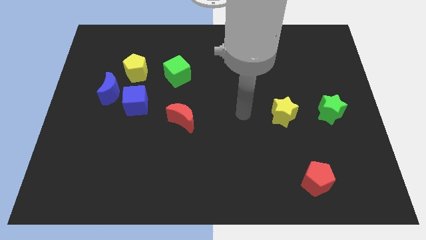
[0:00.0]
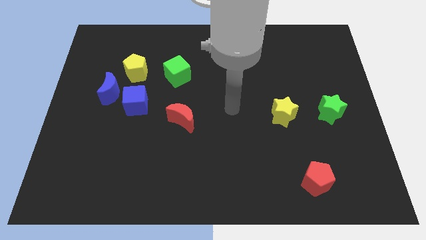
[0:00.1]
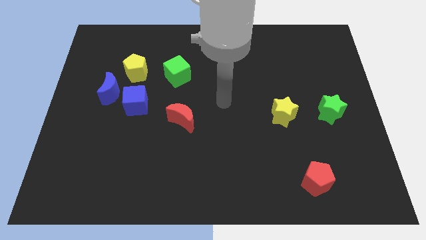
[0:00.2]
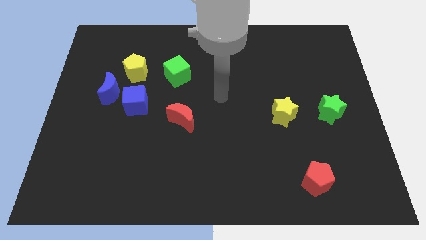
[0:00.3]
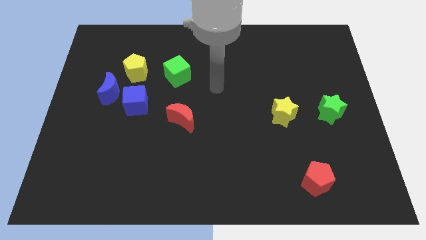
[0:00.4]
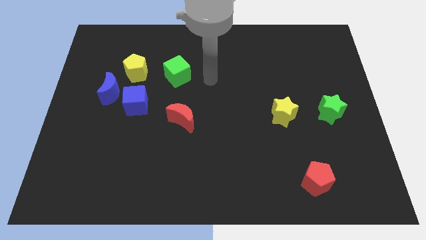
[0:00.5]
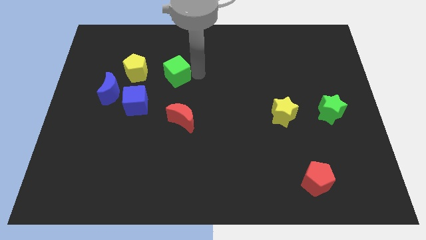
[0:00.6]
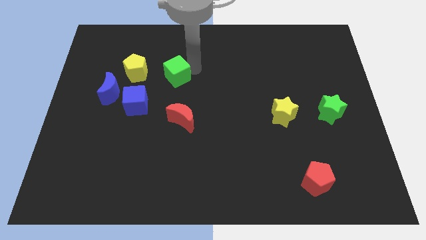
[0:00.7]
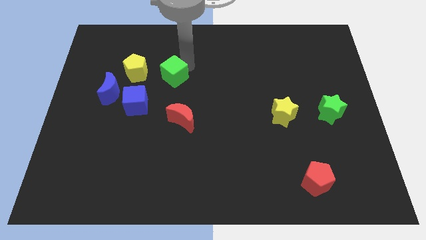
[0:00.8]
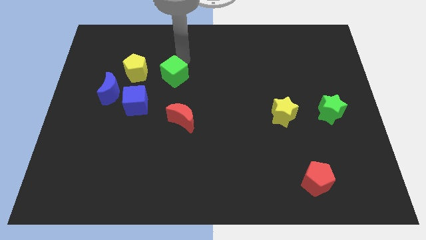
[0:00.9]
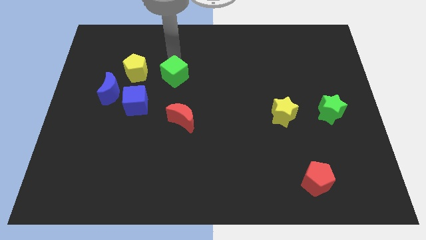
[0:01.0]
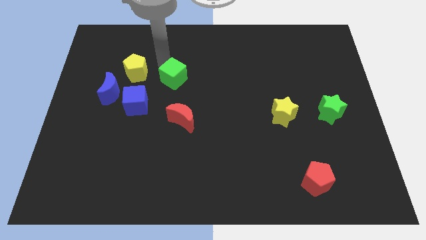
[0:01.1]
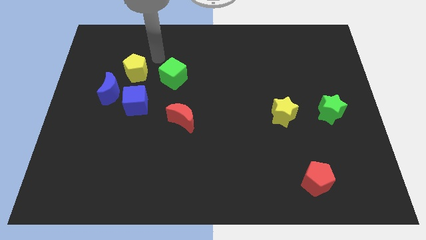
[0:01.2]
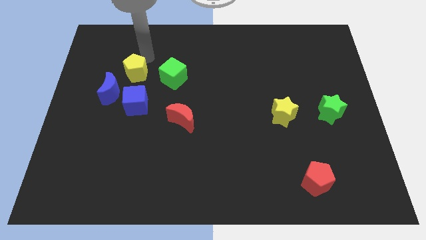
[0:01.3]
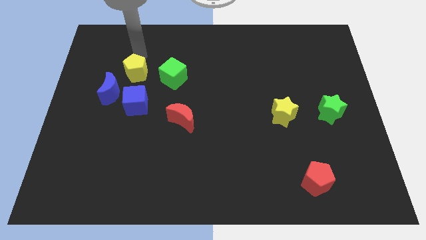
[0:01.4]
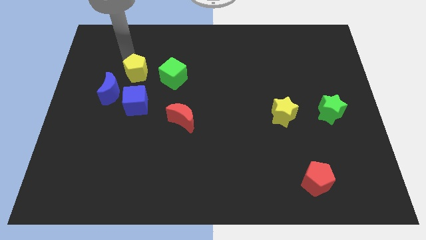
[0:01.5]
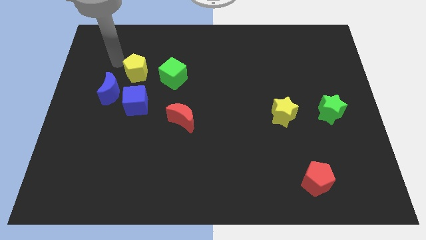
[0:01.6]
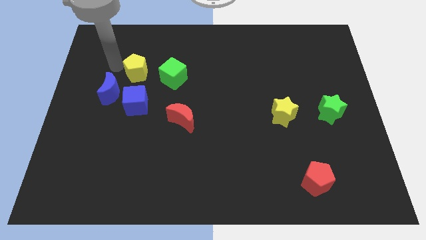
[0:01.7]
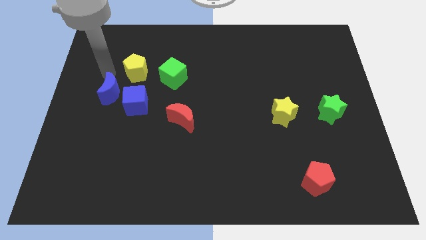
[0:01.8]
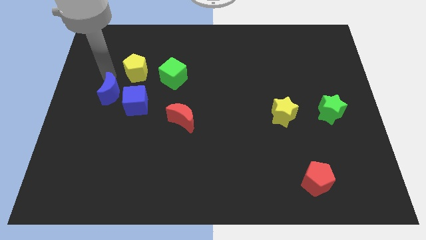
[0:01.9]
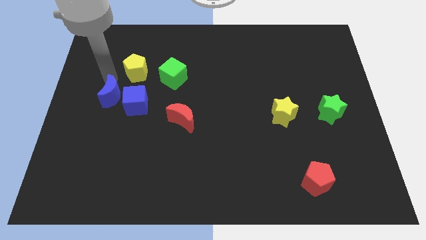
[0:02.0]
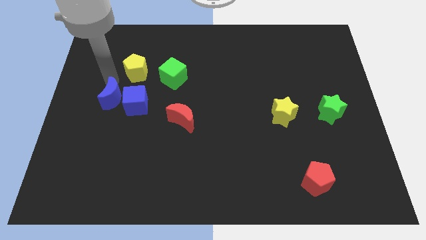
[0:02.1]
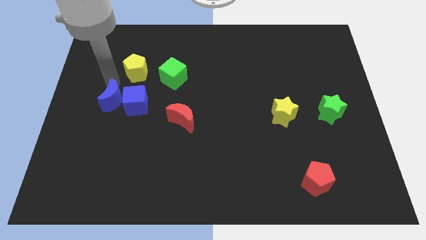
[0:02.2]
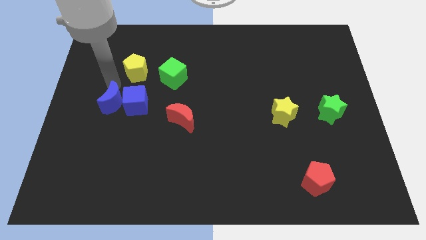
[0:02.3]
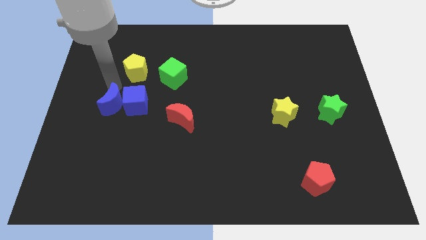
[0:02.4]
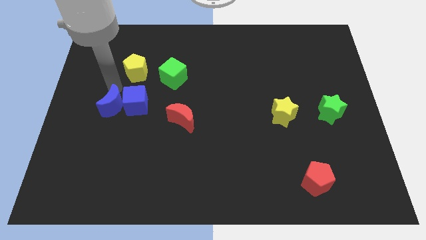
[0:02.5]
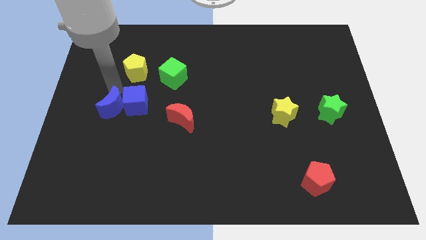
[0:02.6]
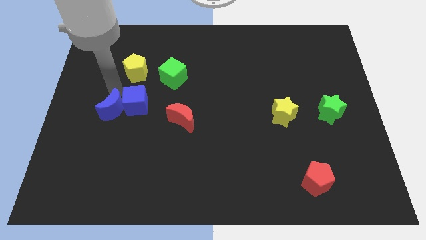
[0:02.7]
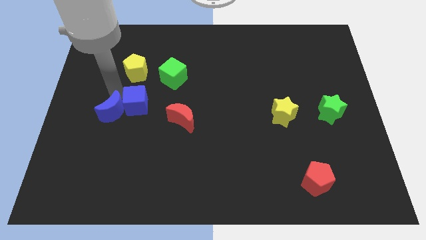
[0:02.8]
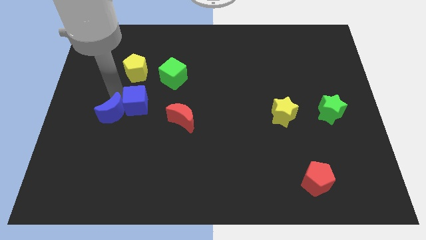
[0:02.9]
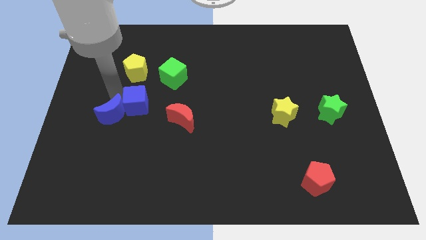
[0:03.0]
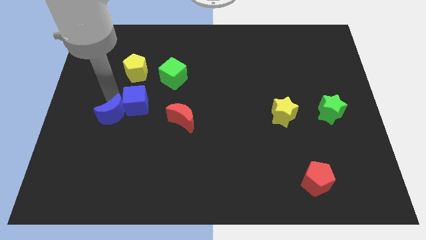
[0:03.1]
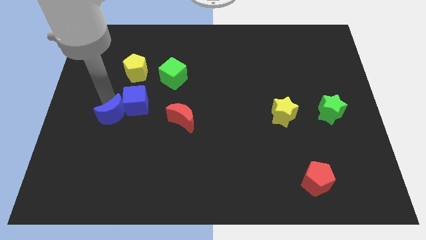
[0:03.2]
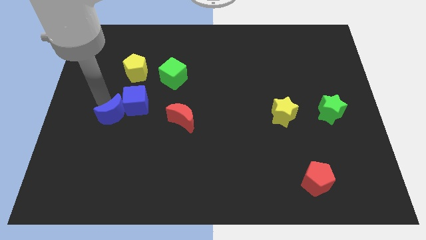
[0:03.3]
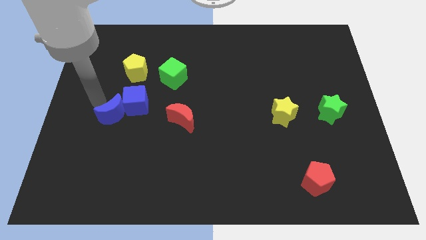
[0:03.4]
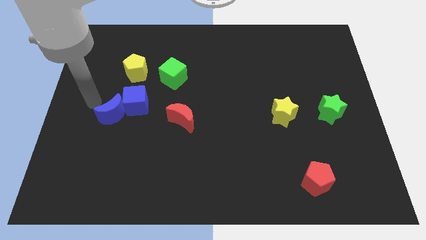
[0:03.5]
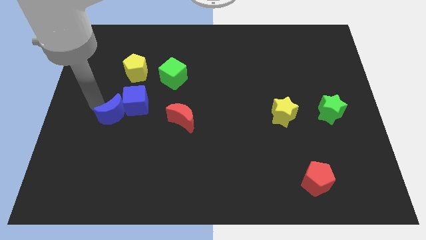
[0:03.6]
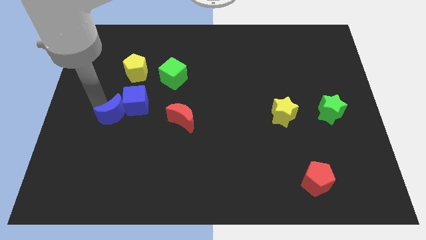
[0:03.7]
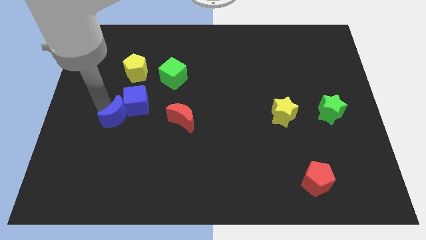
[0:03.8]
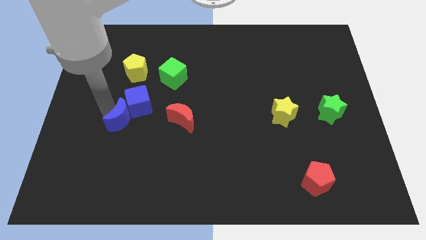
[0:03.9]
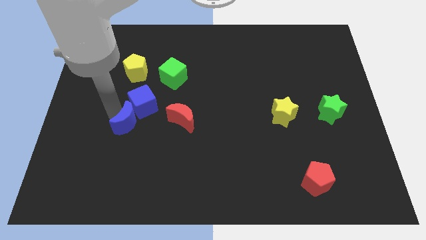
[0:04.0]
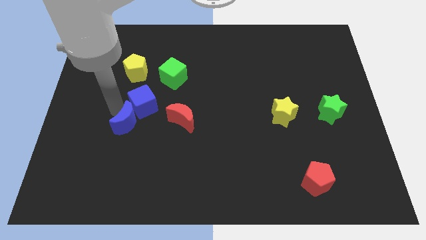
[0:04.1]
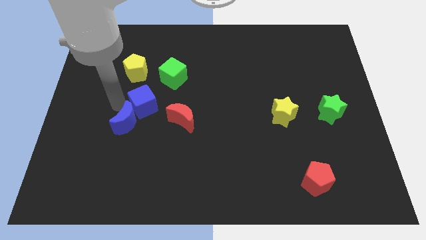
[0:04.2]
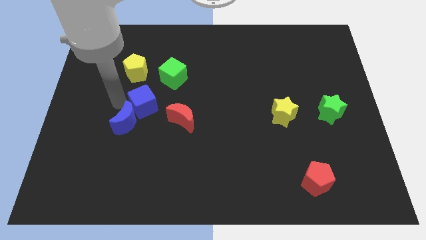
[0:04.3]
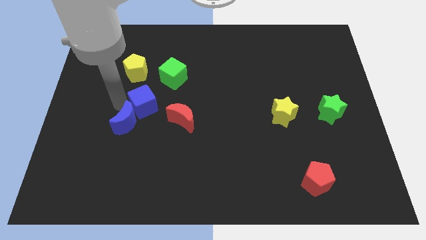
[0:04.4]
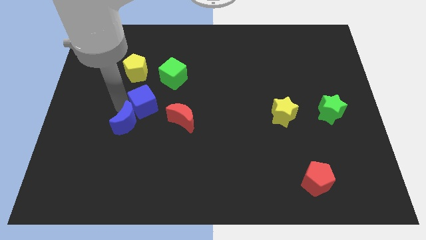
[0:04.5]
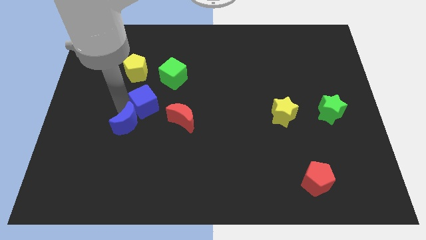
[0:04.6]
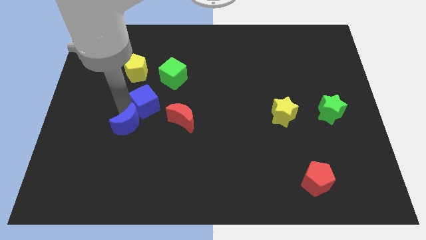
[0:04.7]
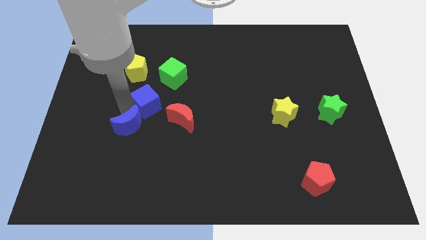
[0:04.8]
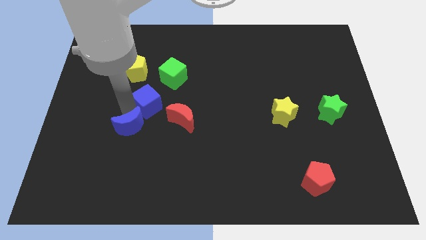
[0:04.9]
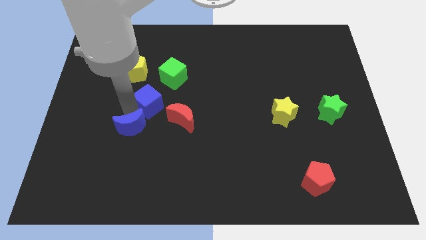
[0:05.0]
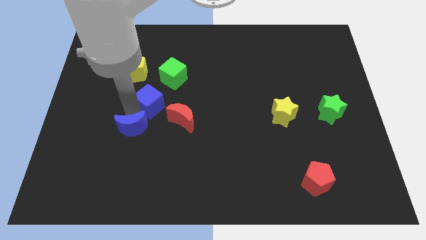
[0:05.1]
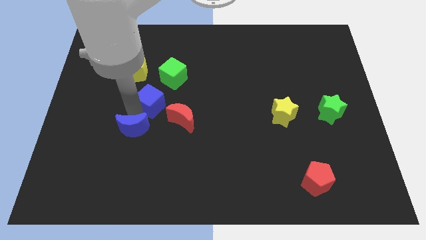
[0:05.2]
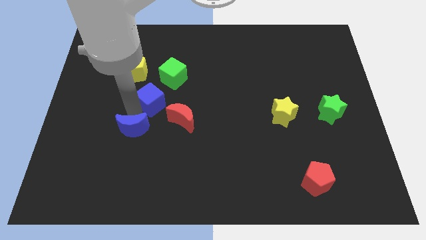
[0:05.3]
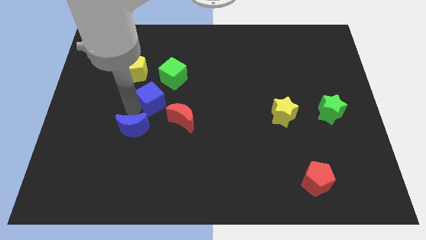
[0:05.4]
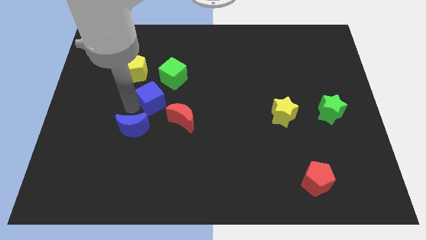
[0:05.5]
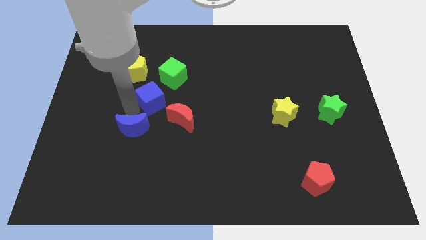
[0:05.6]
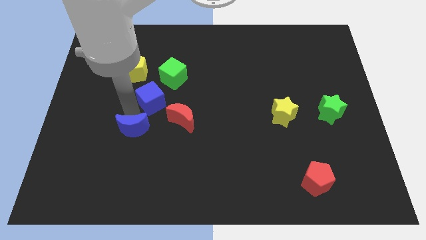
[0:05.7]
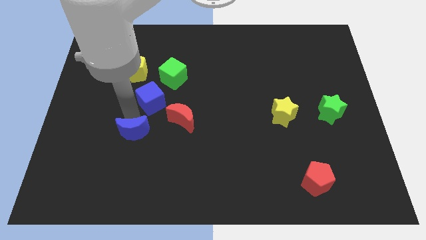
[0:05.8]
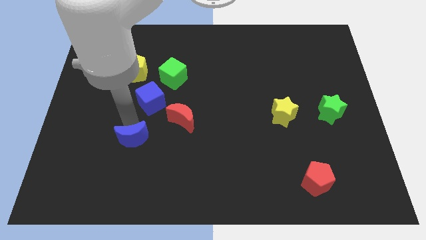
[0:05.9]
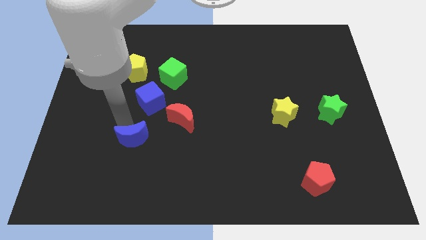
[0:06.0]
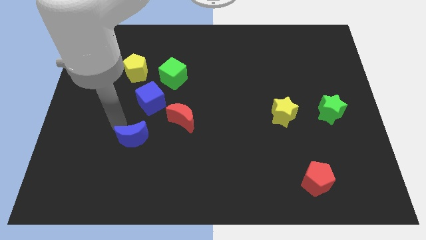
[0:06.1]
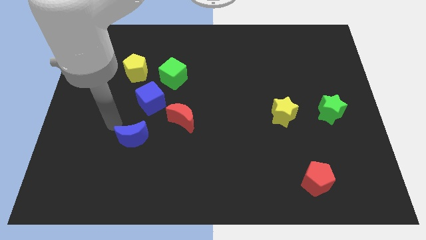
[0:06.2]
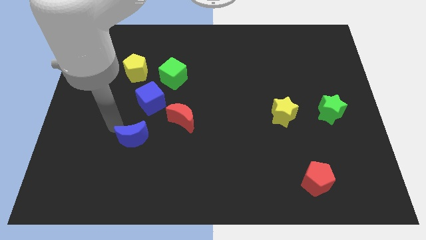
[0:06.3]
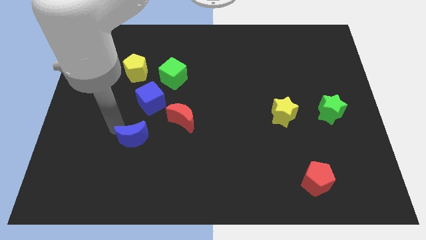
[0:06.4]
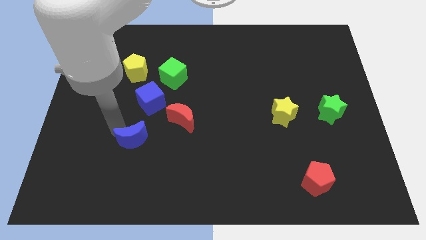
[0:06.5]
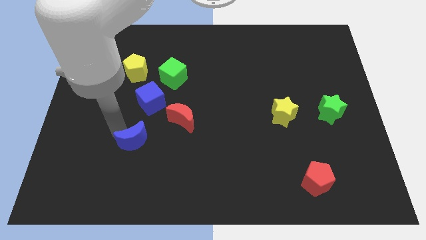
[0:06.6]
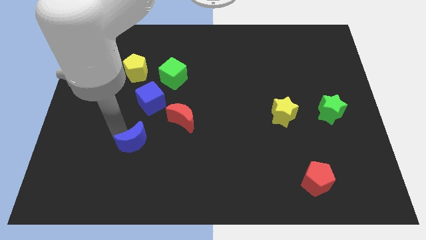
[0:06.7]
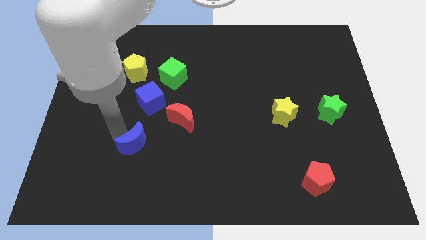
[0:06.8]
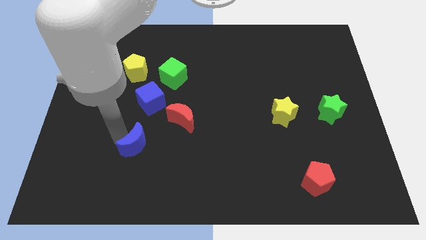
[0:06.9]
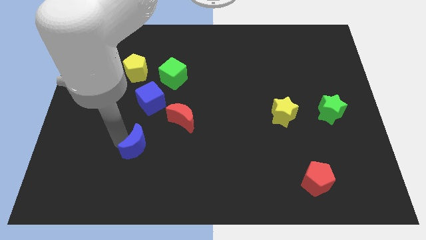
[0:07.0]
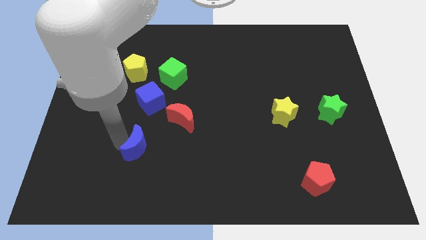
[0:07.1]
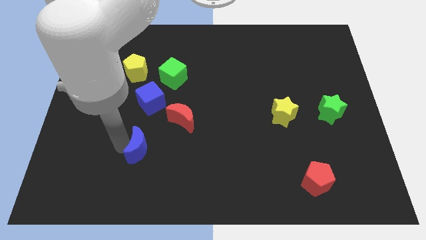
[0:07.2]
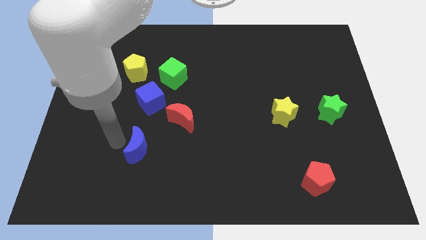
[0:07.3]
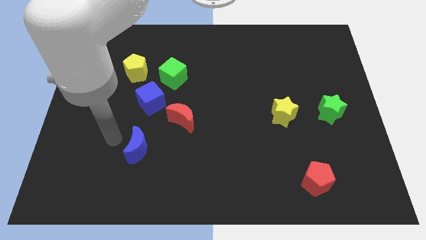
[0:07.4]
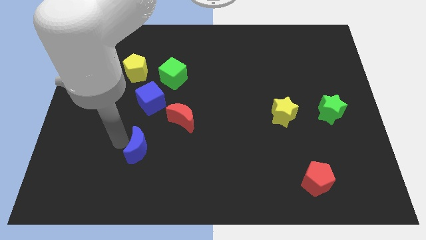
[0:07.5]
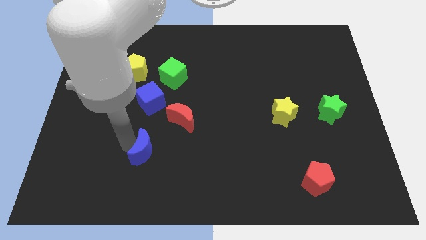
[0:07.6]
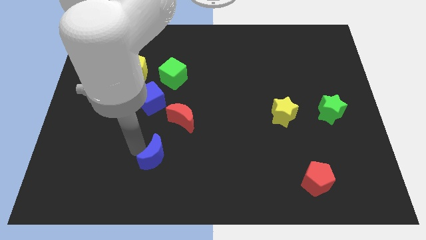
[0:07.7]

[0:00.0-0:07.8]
move the blue moon downwards and right diagonally
